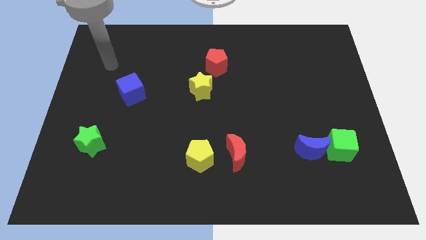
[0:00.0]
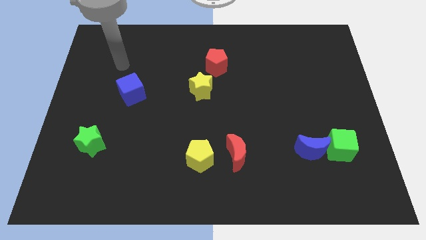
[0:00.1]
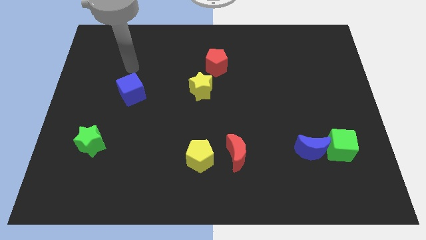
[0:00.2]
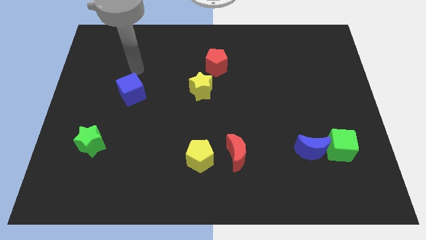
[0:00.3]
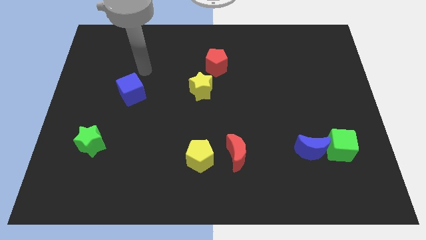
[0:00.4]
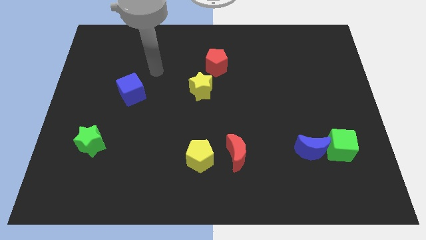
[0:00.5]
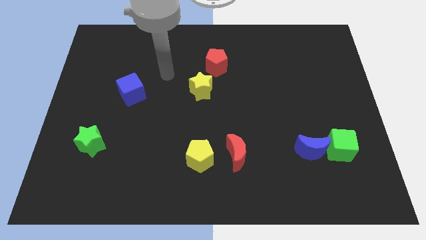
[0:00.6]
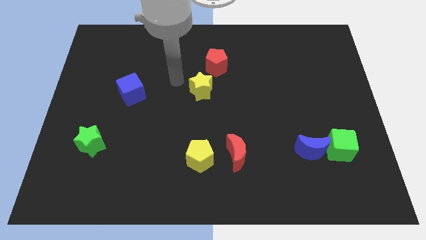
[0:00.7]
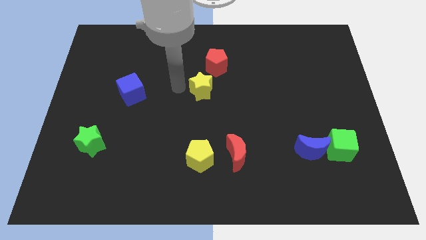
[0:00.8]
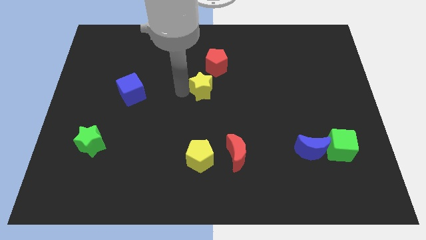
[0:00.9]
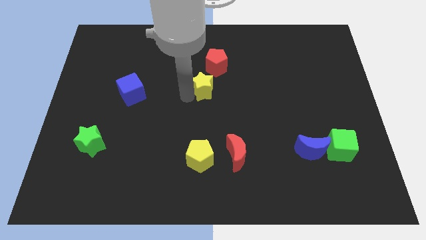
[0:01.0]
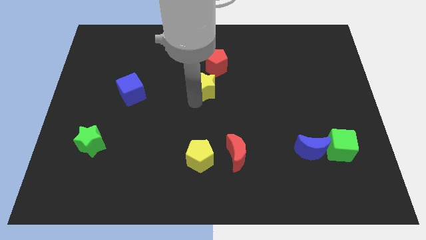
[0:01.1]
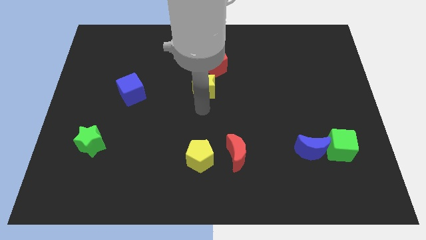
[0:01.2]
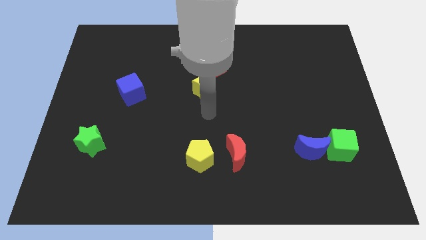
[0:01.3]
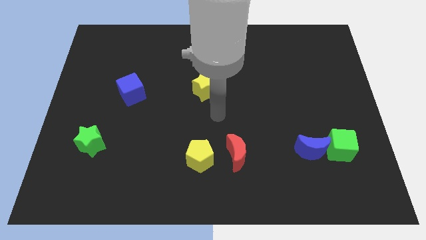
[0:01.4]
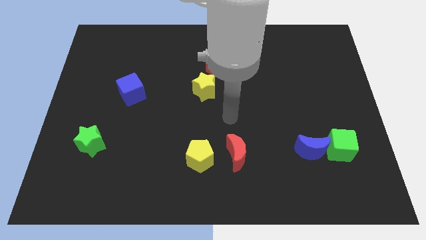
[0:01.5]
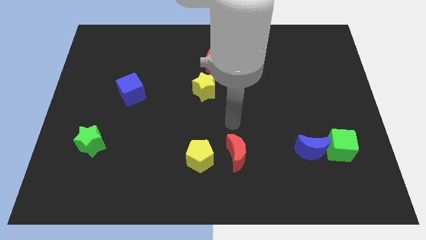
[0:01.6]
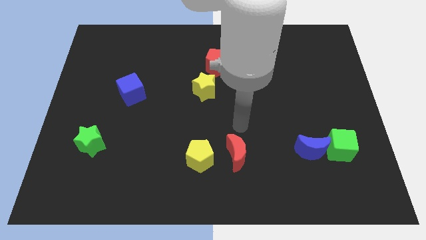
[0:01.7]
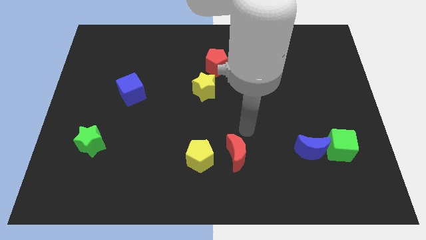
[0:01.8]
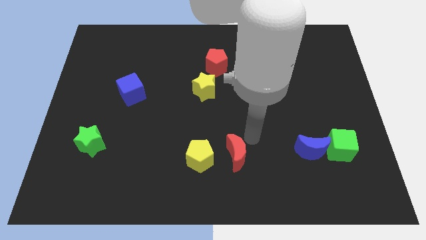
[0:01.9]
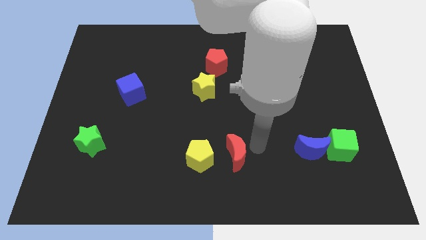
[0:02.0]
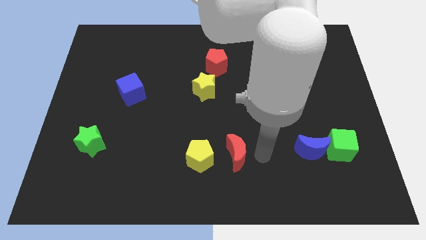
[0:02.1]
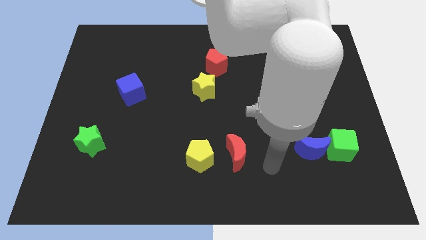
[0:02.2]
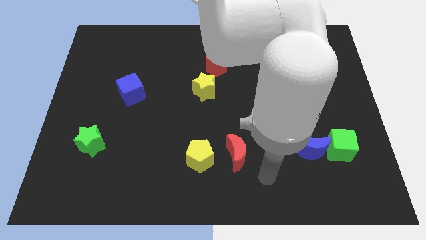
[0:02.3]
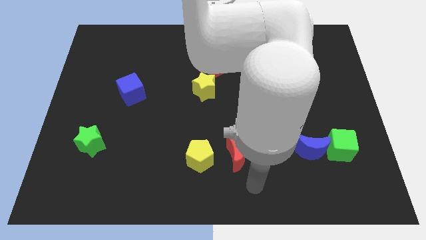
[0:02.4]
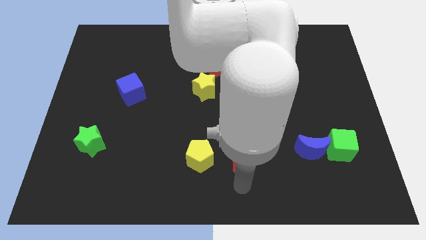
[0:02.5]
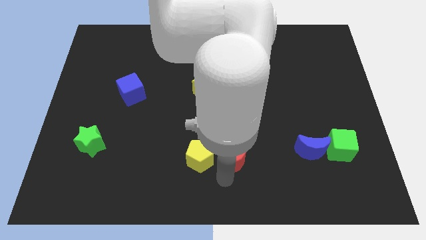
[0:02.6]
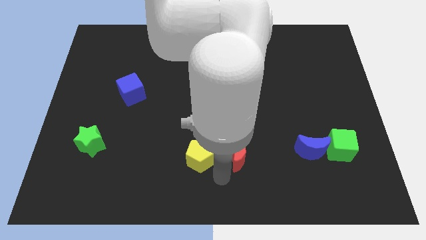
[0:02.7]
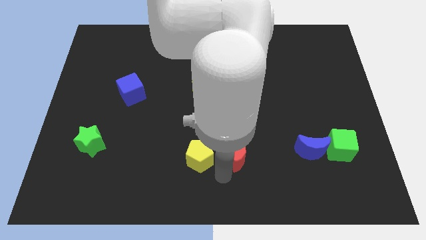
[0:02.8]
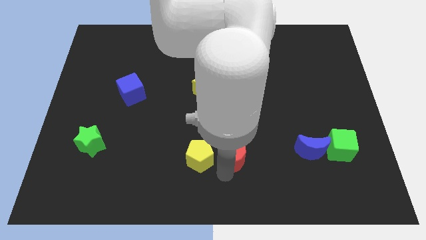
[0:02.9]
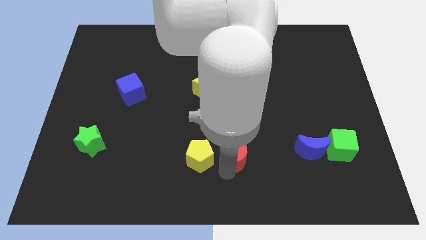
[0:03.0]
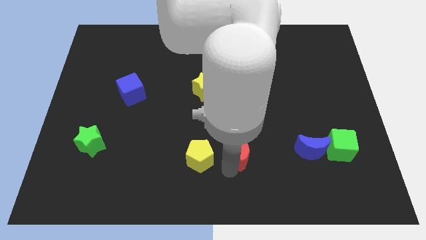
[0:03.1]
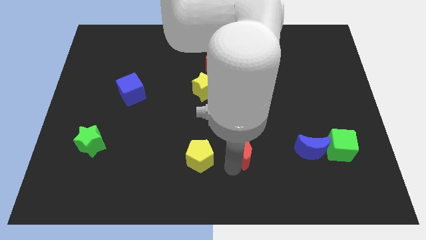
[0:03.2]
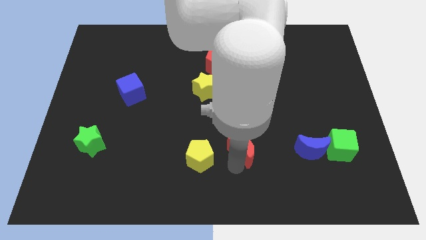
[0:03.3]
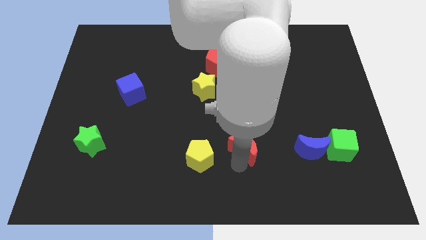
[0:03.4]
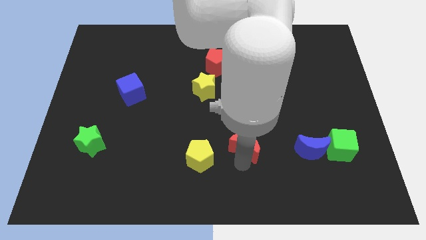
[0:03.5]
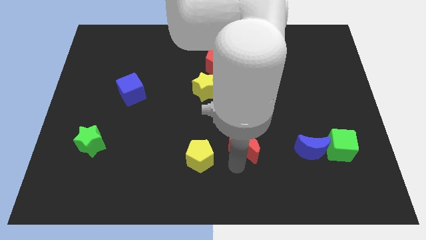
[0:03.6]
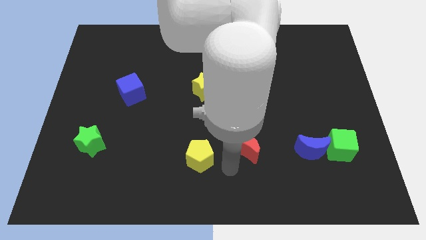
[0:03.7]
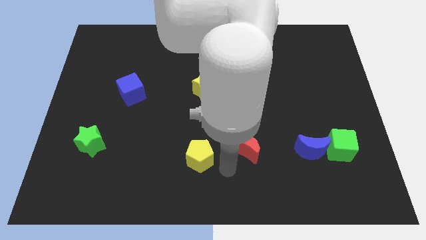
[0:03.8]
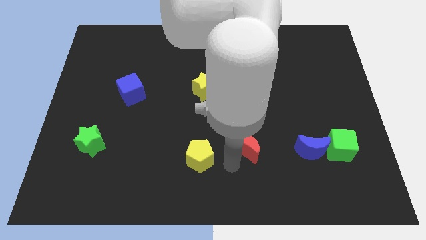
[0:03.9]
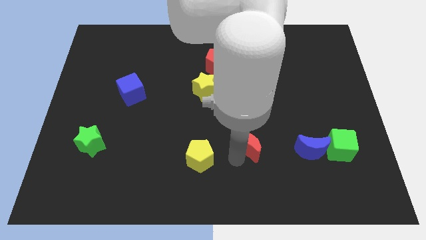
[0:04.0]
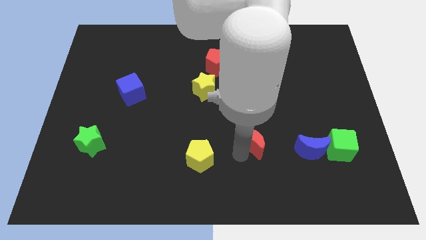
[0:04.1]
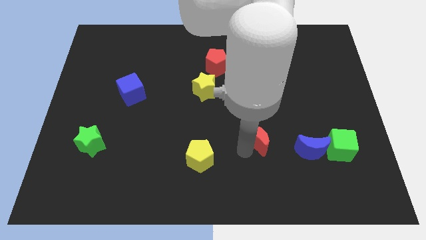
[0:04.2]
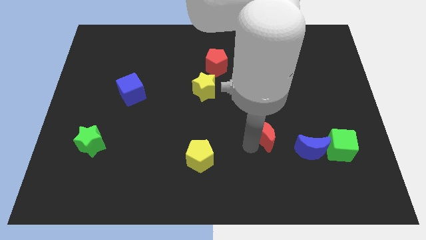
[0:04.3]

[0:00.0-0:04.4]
slide the red moon up and then to the right a little

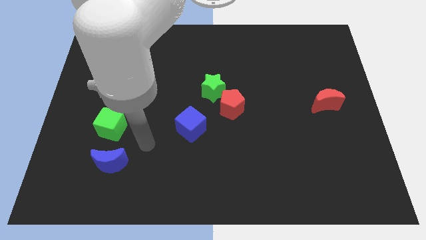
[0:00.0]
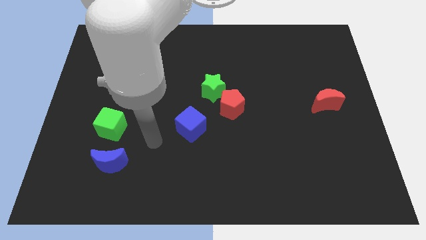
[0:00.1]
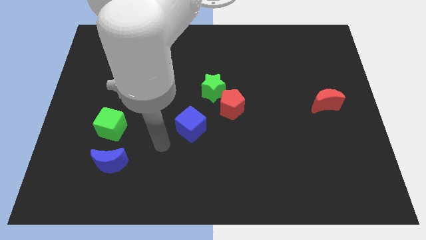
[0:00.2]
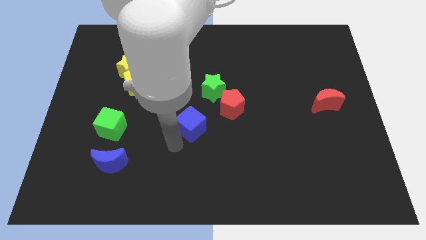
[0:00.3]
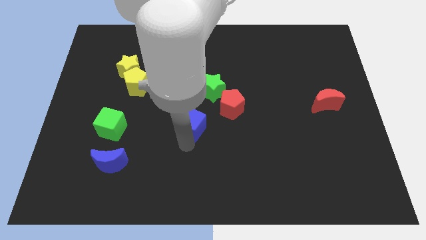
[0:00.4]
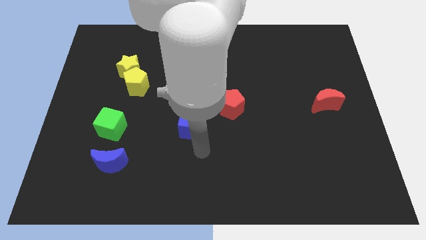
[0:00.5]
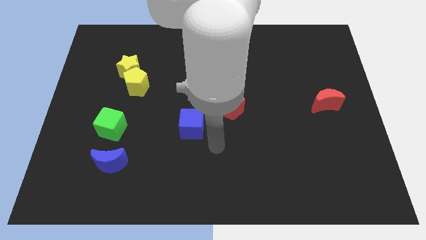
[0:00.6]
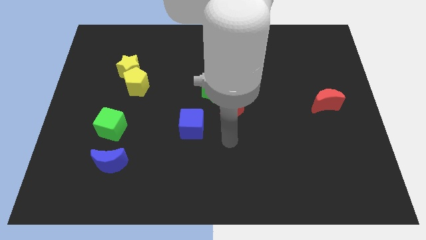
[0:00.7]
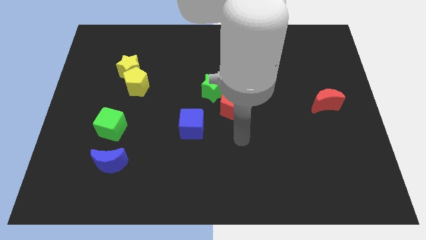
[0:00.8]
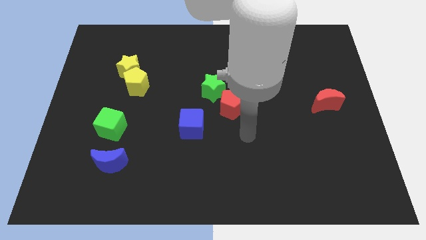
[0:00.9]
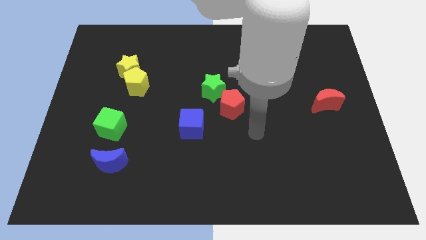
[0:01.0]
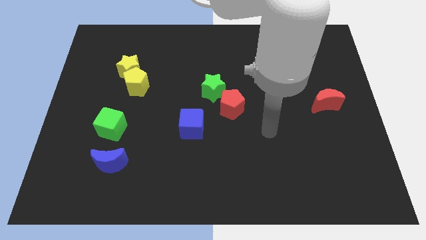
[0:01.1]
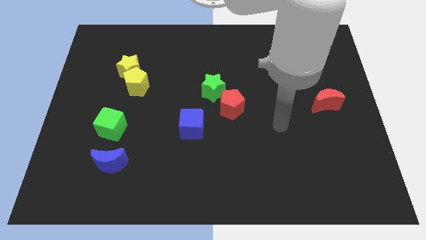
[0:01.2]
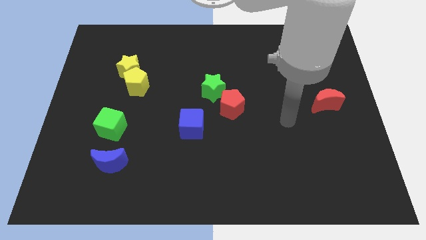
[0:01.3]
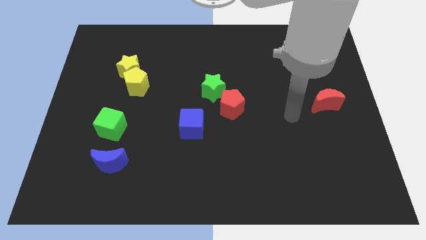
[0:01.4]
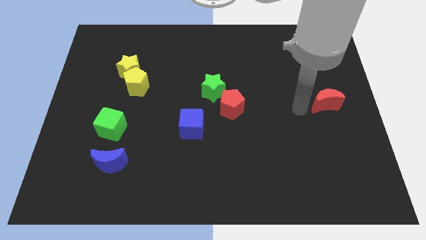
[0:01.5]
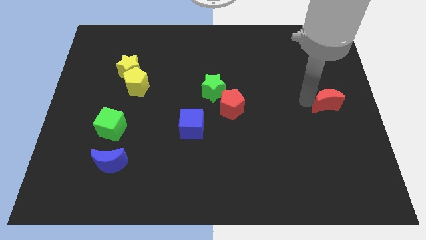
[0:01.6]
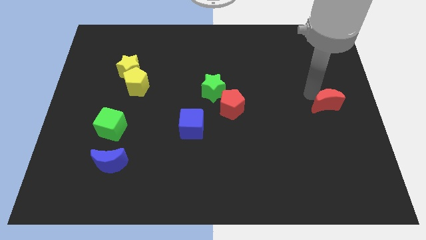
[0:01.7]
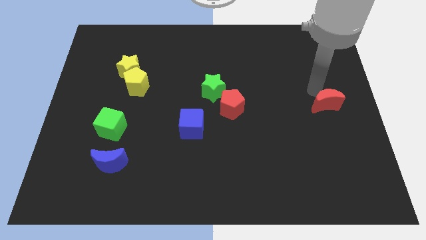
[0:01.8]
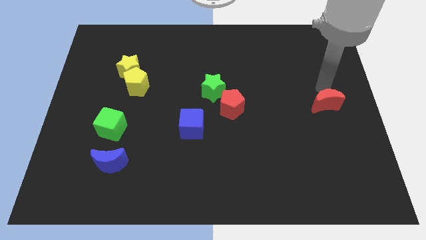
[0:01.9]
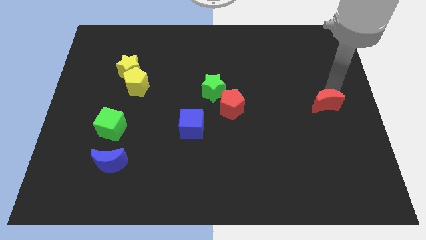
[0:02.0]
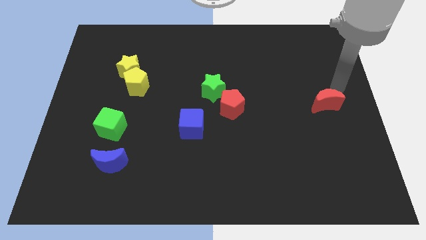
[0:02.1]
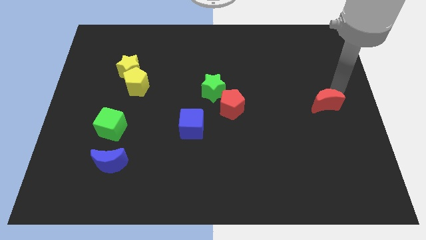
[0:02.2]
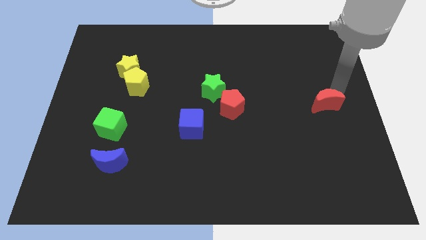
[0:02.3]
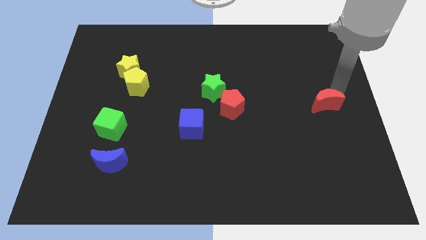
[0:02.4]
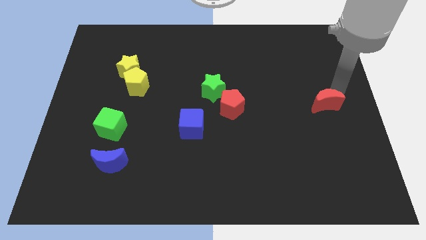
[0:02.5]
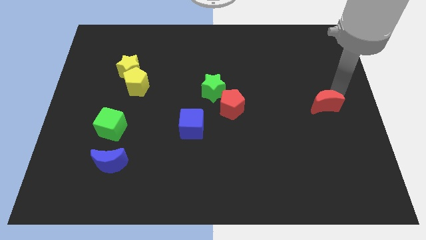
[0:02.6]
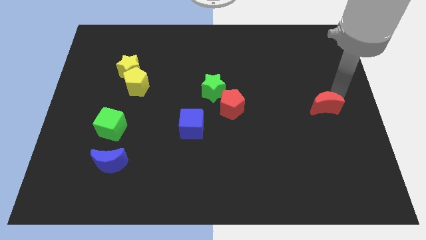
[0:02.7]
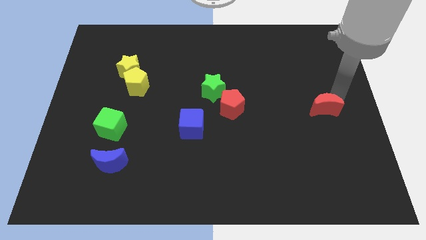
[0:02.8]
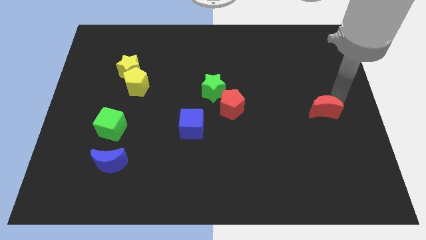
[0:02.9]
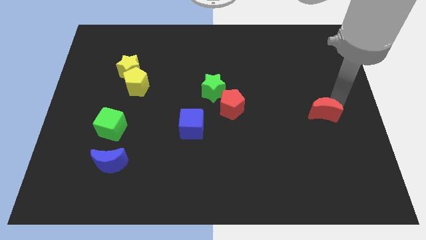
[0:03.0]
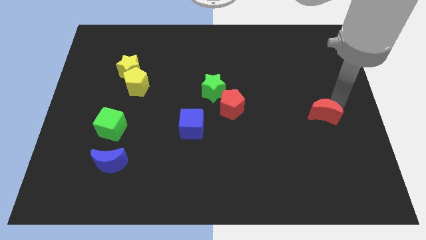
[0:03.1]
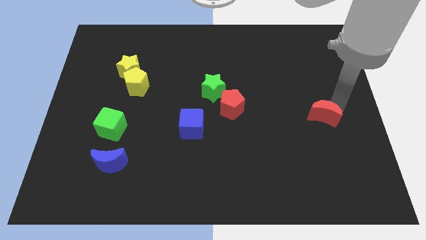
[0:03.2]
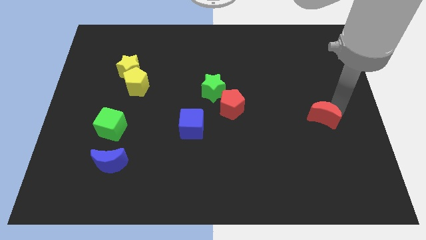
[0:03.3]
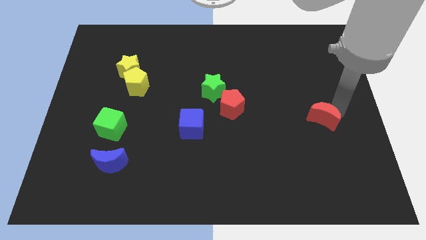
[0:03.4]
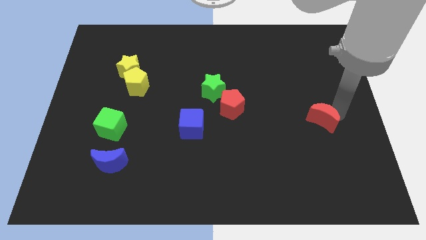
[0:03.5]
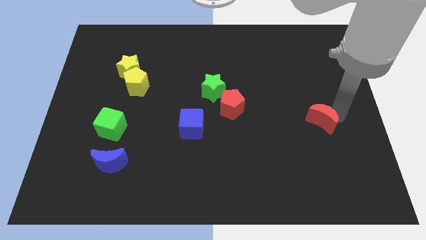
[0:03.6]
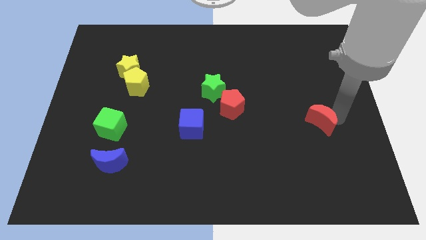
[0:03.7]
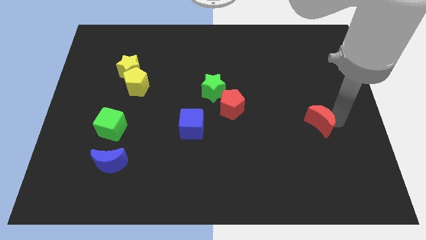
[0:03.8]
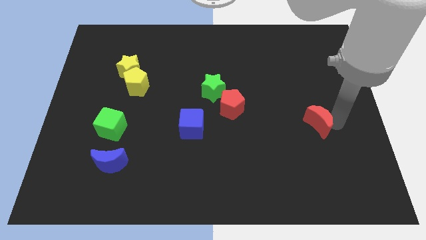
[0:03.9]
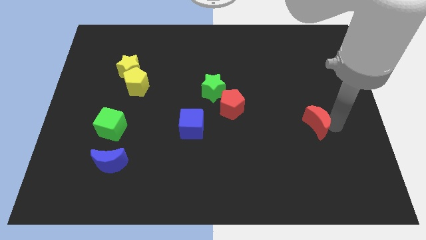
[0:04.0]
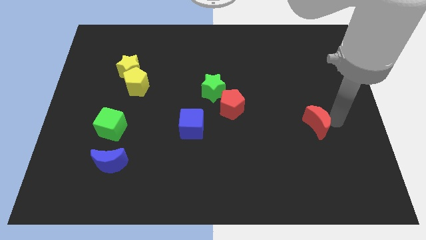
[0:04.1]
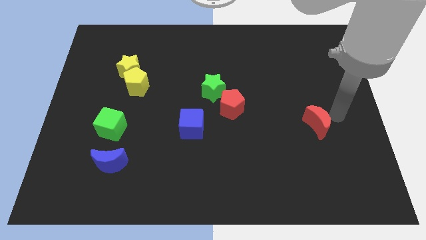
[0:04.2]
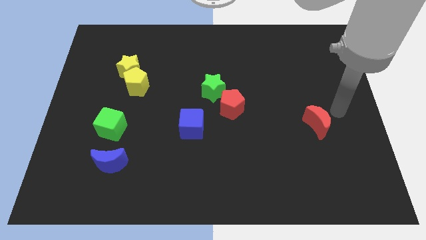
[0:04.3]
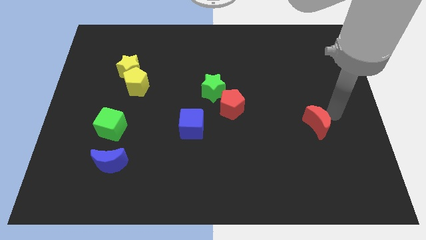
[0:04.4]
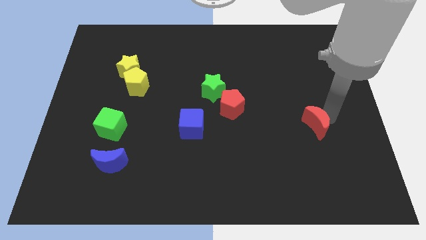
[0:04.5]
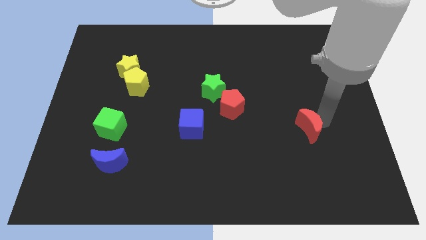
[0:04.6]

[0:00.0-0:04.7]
slightly move the red moon downwards and then to the left
